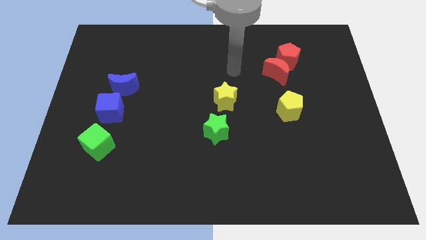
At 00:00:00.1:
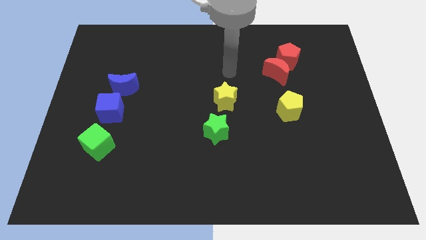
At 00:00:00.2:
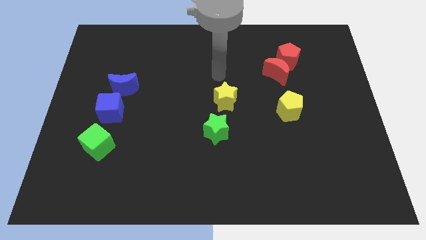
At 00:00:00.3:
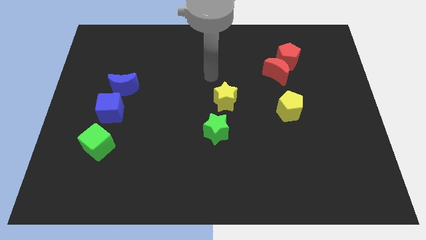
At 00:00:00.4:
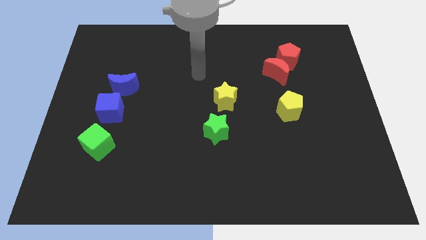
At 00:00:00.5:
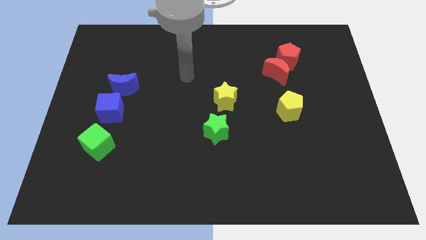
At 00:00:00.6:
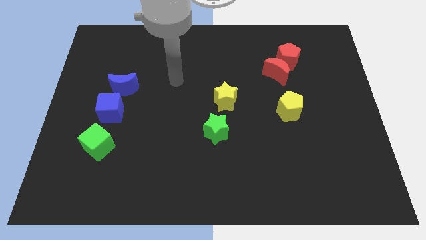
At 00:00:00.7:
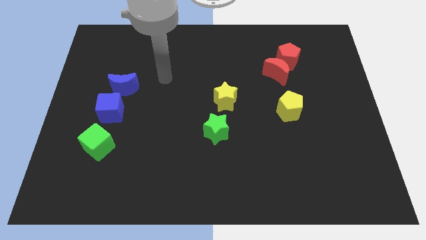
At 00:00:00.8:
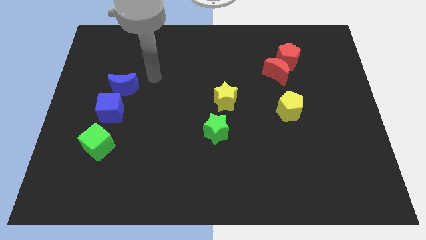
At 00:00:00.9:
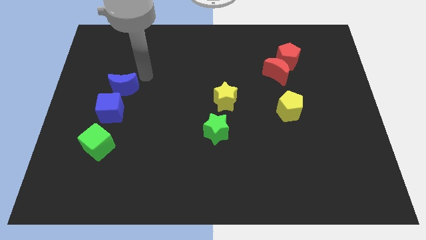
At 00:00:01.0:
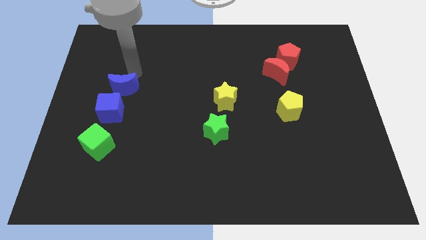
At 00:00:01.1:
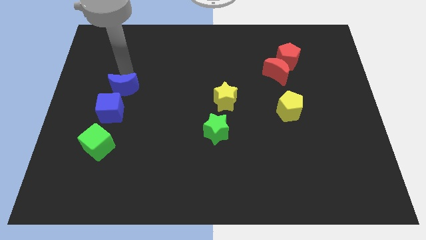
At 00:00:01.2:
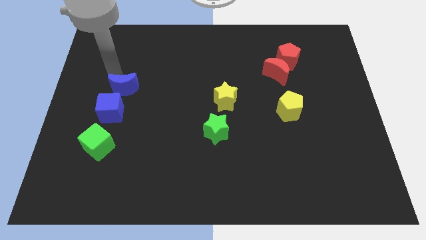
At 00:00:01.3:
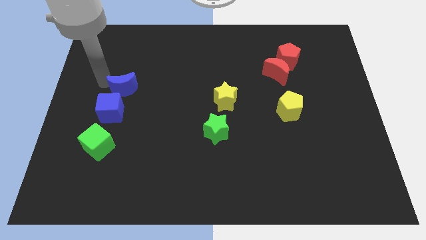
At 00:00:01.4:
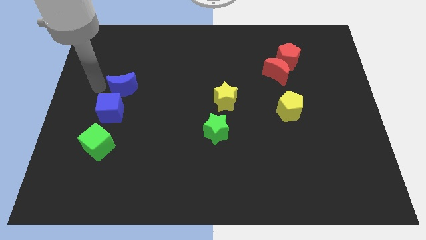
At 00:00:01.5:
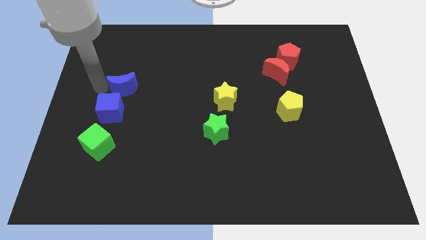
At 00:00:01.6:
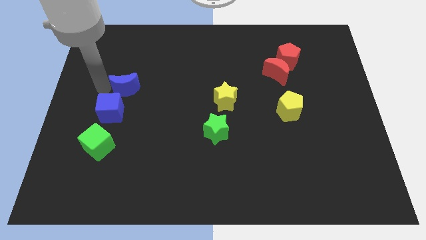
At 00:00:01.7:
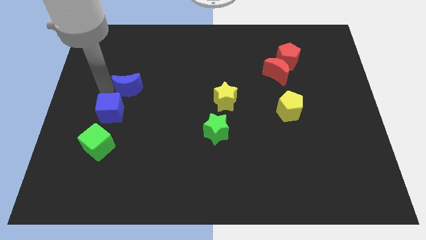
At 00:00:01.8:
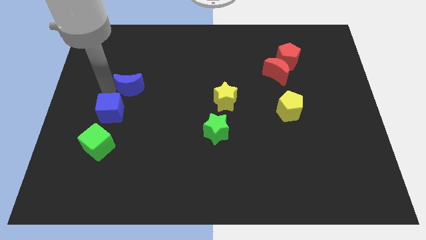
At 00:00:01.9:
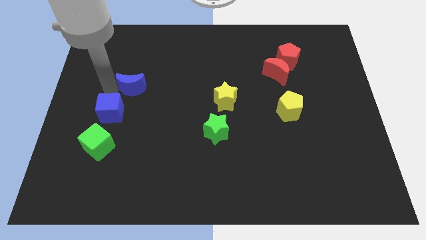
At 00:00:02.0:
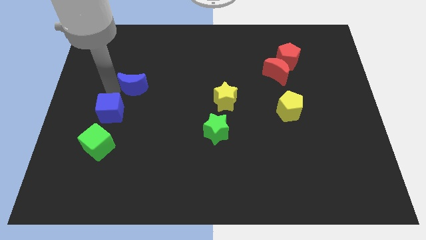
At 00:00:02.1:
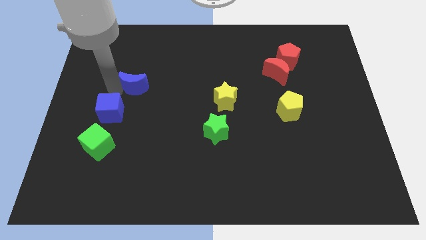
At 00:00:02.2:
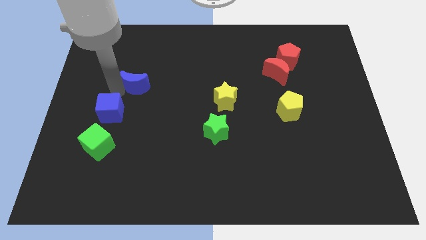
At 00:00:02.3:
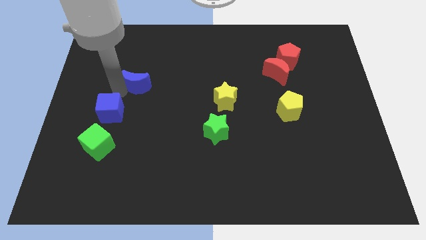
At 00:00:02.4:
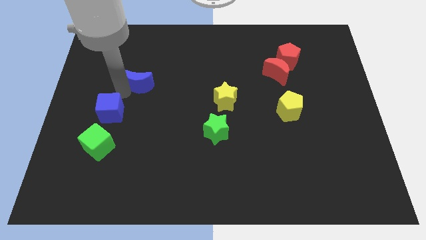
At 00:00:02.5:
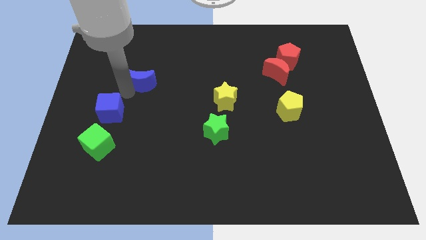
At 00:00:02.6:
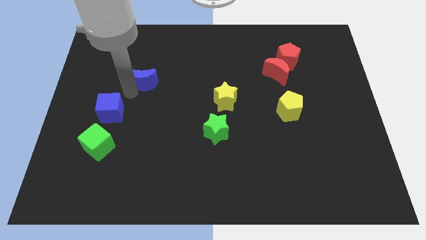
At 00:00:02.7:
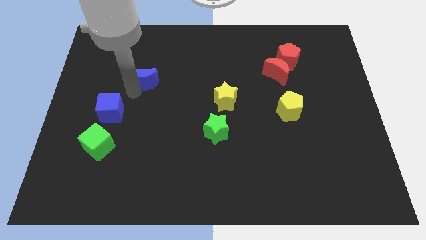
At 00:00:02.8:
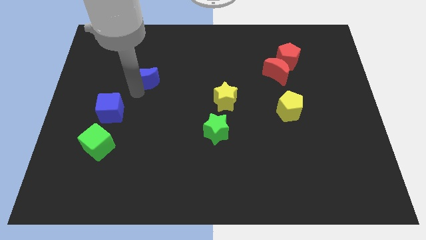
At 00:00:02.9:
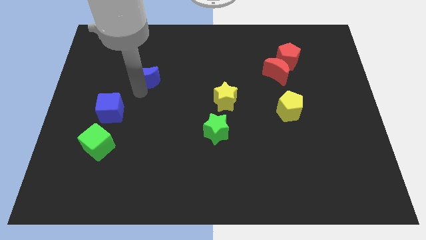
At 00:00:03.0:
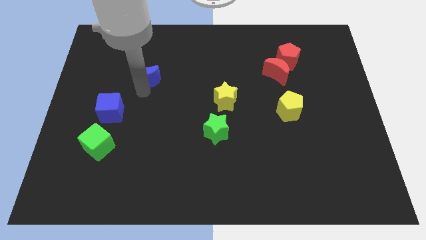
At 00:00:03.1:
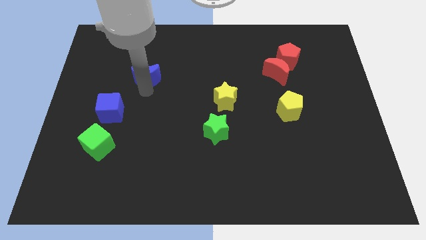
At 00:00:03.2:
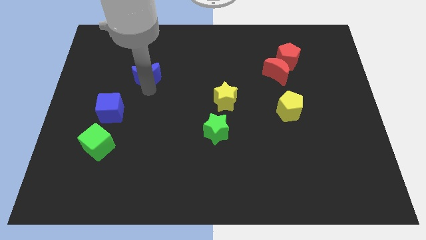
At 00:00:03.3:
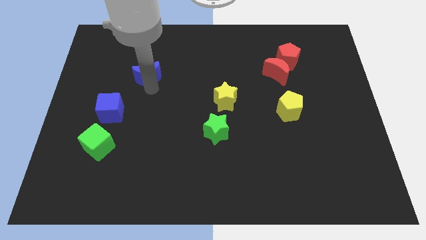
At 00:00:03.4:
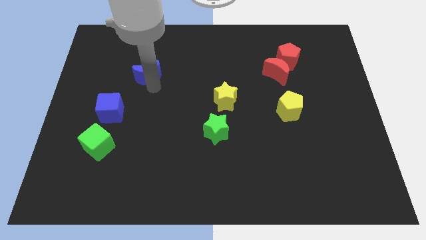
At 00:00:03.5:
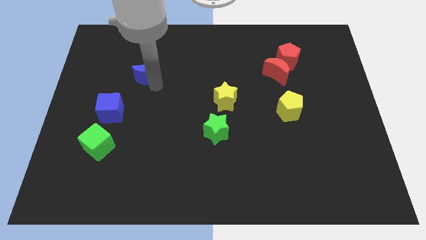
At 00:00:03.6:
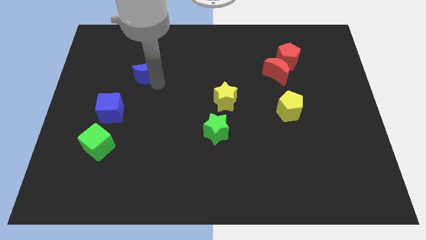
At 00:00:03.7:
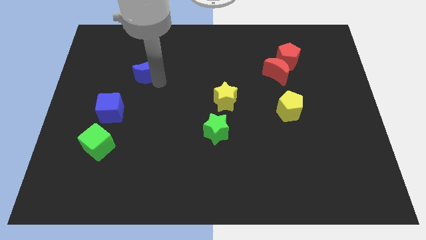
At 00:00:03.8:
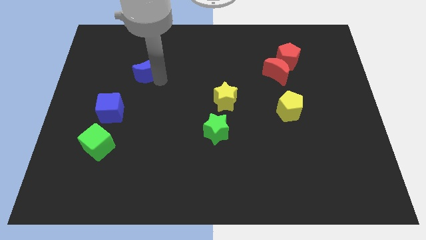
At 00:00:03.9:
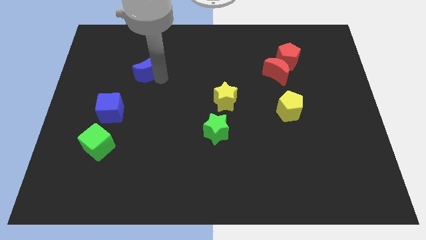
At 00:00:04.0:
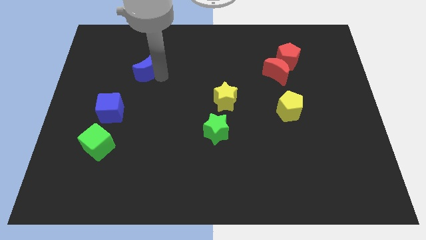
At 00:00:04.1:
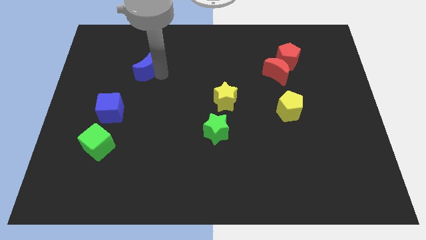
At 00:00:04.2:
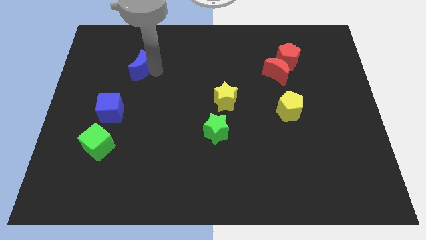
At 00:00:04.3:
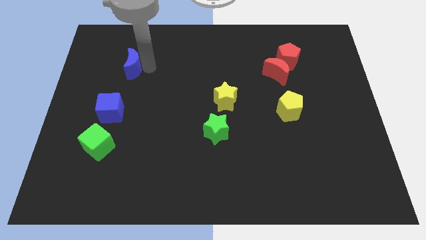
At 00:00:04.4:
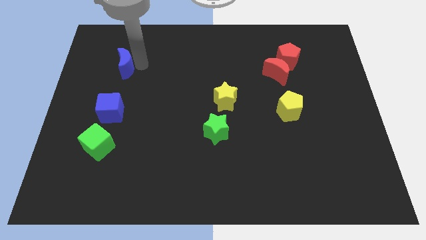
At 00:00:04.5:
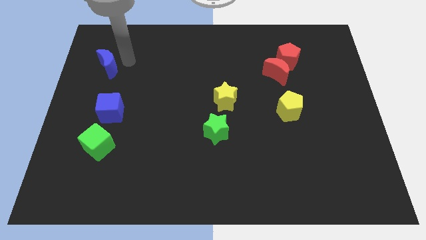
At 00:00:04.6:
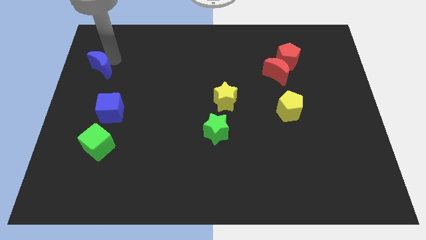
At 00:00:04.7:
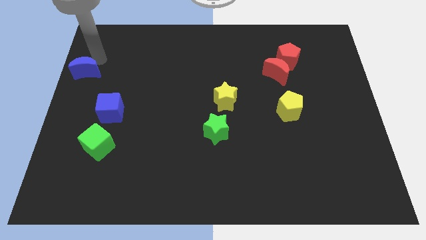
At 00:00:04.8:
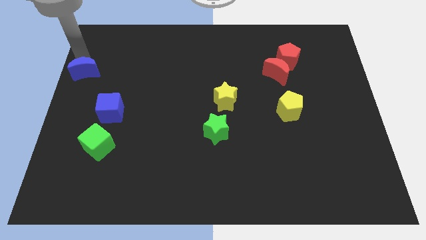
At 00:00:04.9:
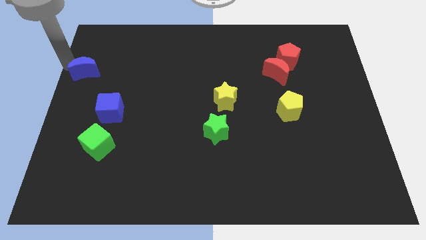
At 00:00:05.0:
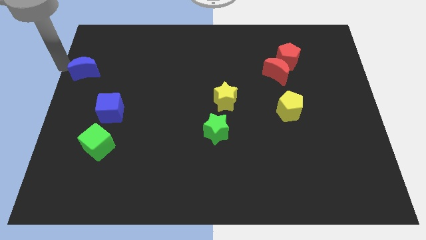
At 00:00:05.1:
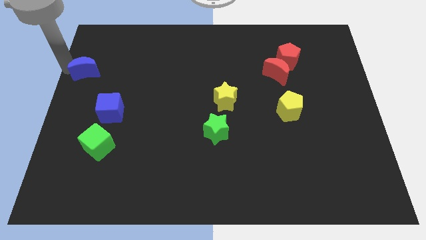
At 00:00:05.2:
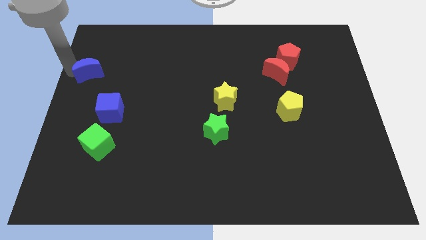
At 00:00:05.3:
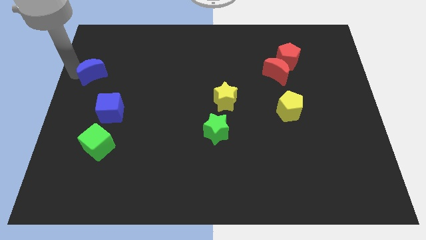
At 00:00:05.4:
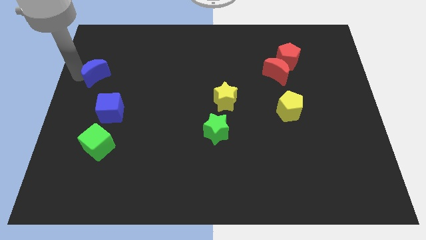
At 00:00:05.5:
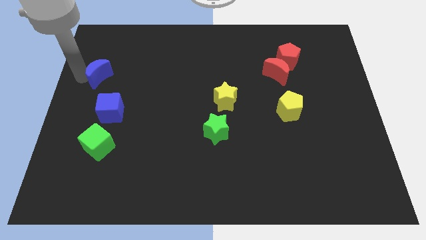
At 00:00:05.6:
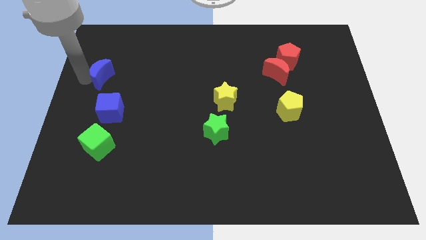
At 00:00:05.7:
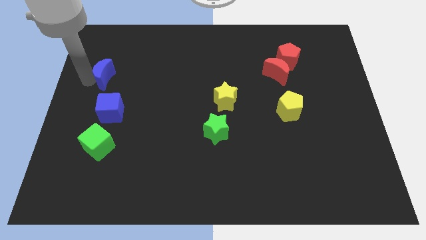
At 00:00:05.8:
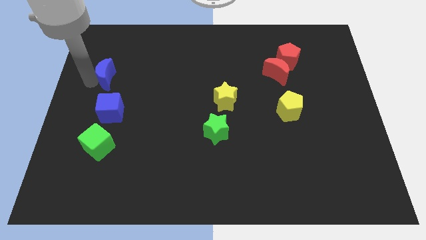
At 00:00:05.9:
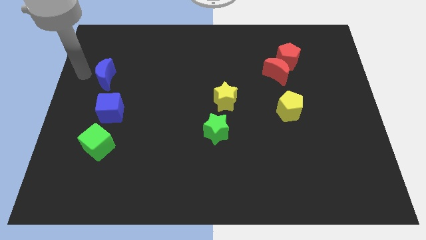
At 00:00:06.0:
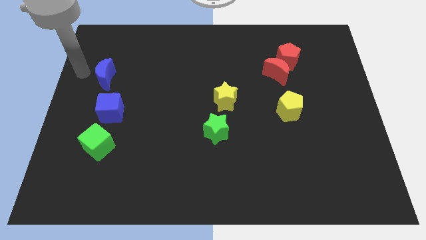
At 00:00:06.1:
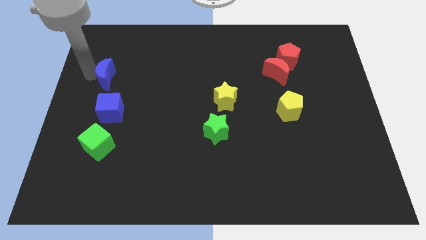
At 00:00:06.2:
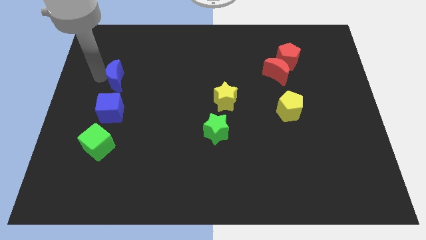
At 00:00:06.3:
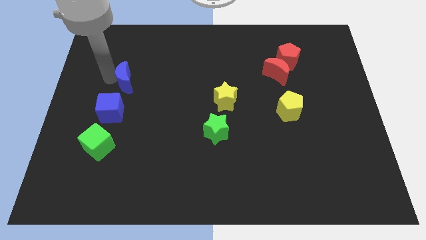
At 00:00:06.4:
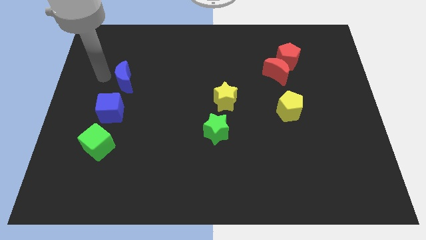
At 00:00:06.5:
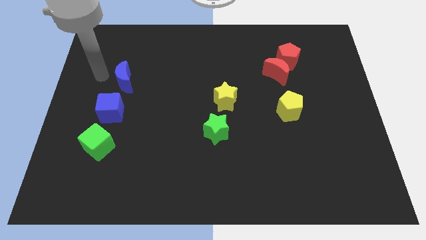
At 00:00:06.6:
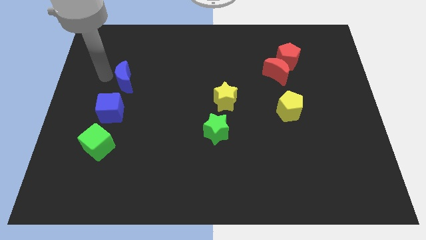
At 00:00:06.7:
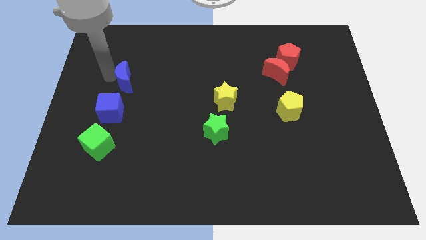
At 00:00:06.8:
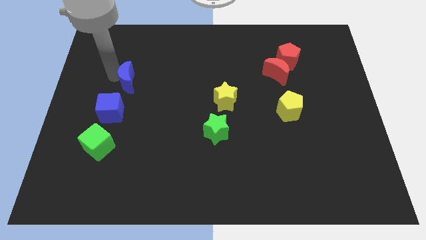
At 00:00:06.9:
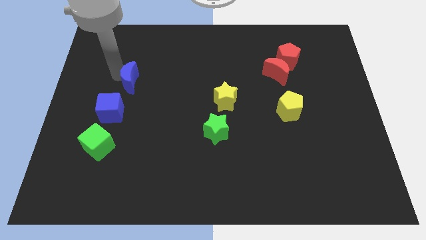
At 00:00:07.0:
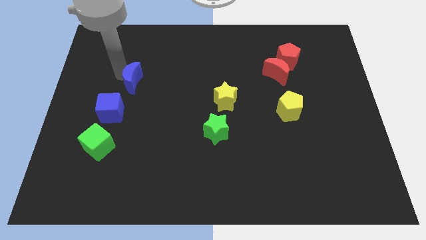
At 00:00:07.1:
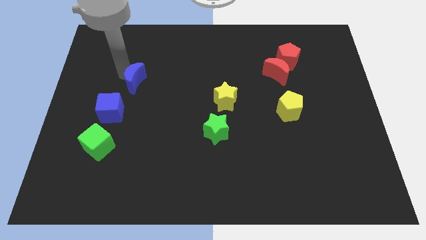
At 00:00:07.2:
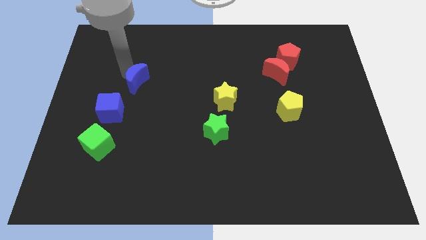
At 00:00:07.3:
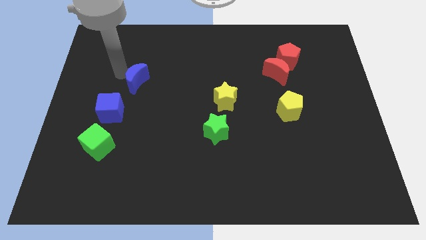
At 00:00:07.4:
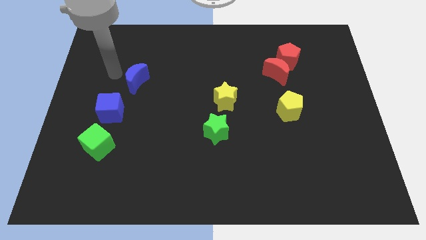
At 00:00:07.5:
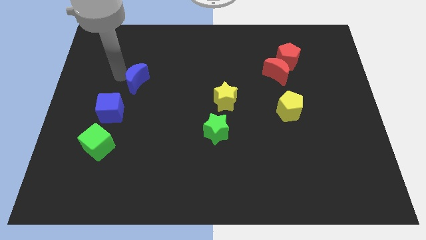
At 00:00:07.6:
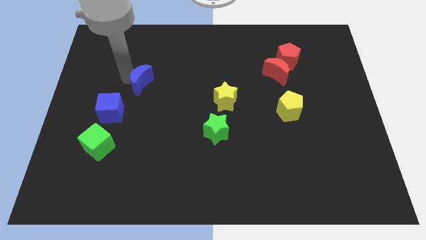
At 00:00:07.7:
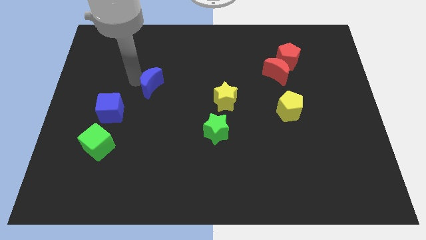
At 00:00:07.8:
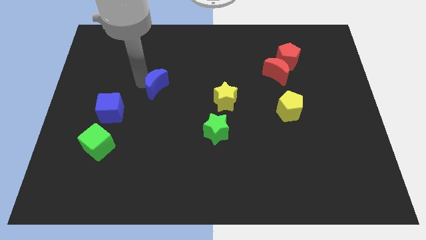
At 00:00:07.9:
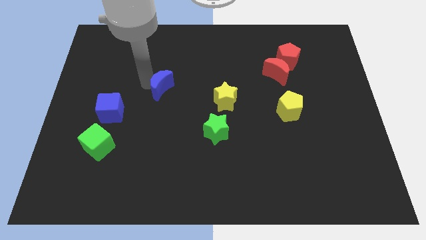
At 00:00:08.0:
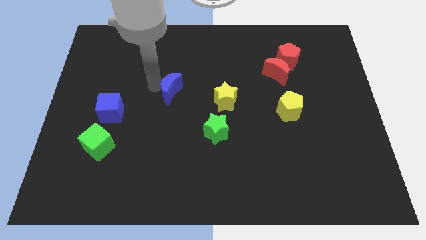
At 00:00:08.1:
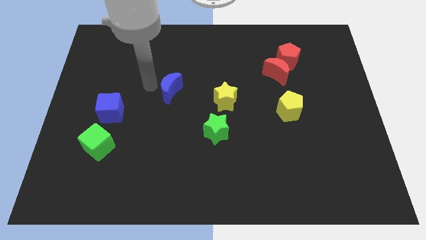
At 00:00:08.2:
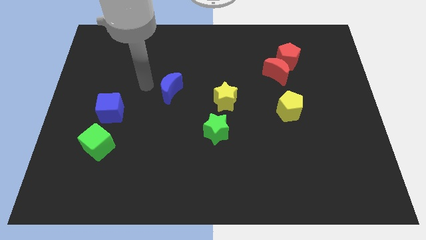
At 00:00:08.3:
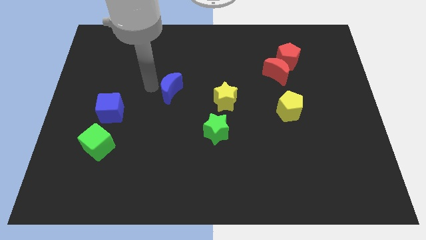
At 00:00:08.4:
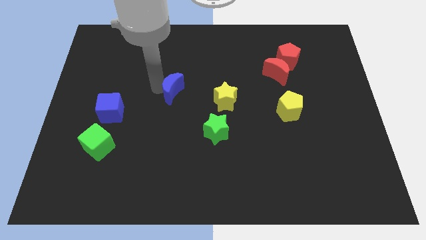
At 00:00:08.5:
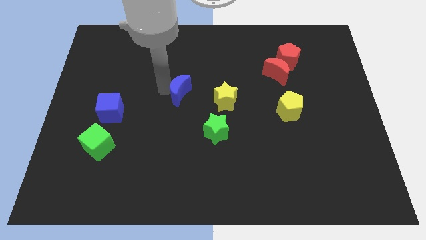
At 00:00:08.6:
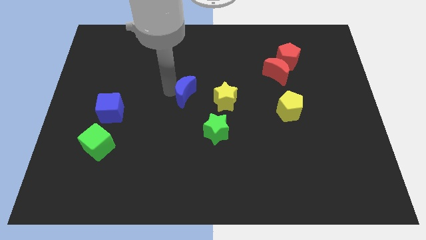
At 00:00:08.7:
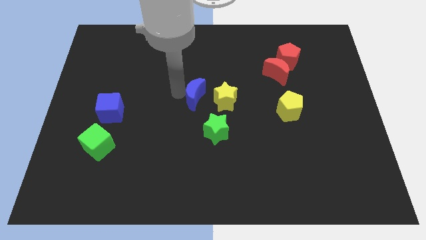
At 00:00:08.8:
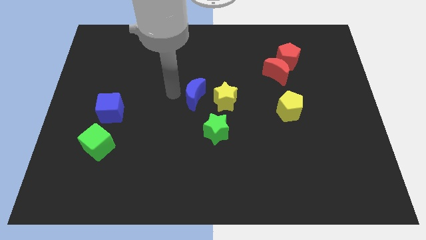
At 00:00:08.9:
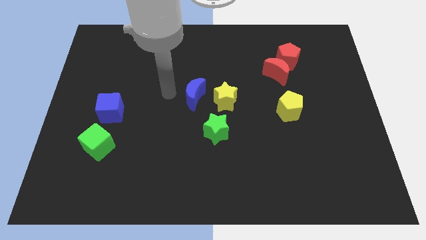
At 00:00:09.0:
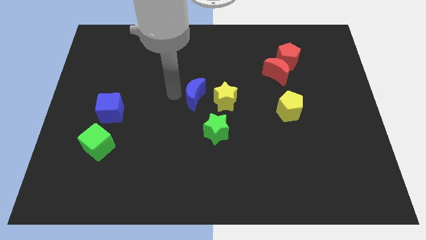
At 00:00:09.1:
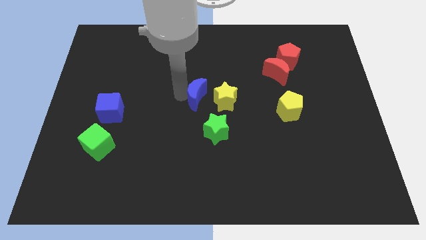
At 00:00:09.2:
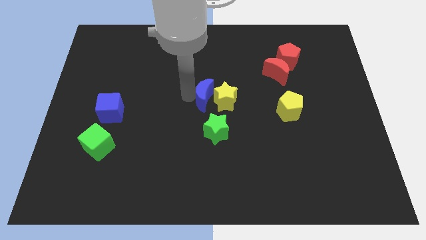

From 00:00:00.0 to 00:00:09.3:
move the blue moon close to the yellow star
